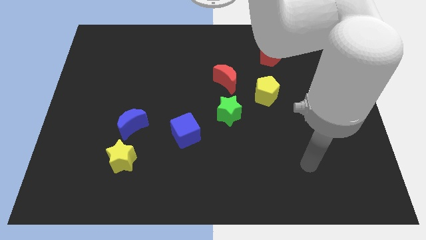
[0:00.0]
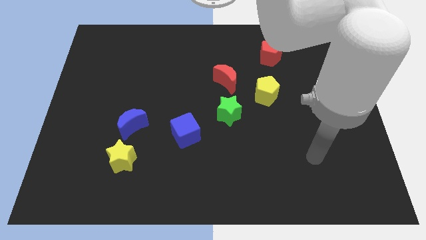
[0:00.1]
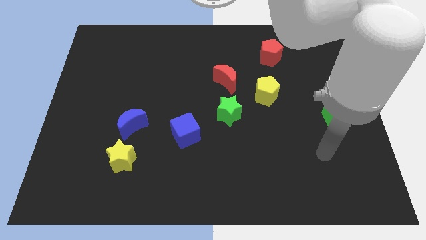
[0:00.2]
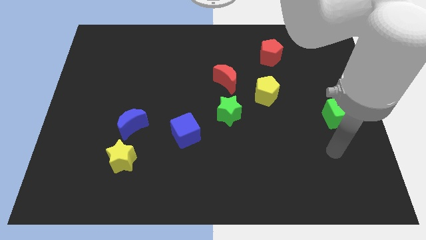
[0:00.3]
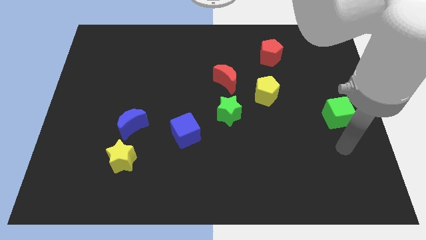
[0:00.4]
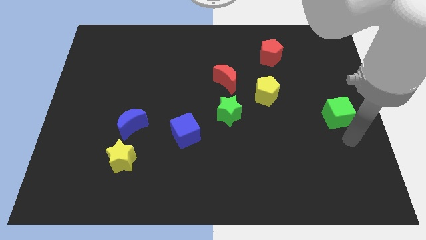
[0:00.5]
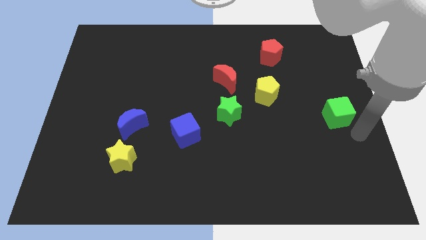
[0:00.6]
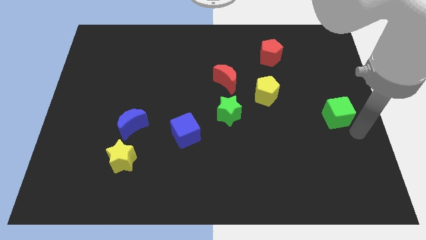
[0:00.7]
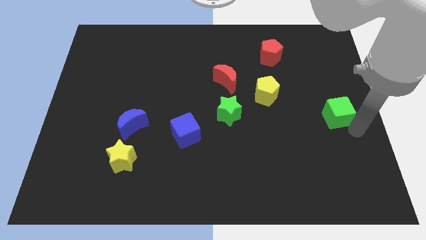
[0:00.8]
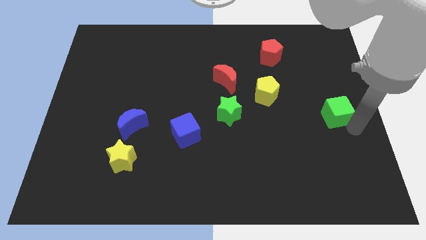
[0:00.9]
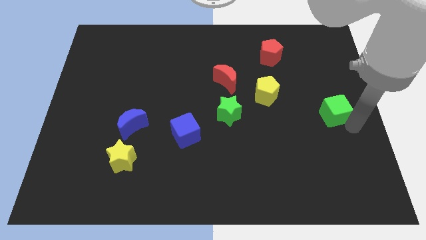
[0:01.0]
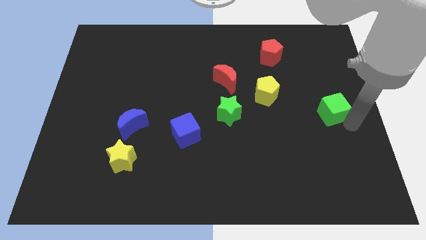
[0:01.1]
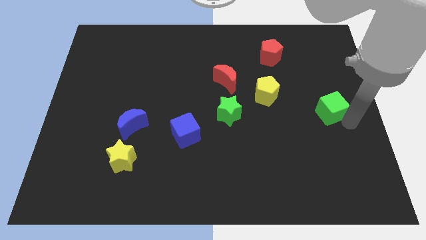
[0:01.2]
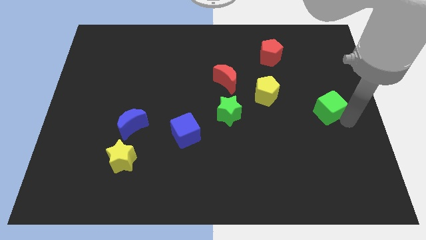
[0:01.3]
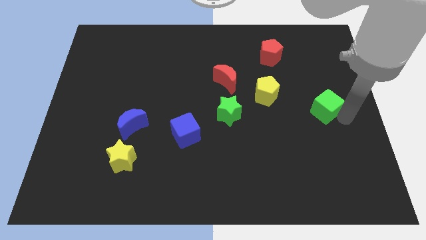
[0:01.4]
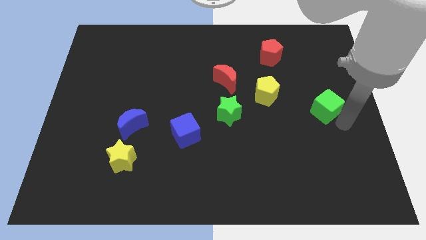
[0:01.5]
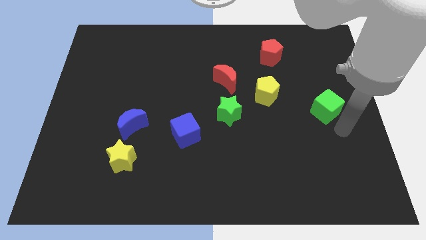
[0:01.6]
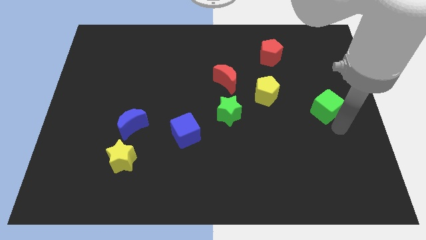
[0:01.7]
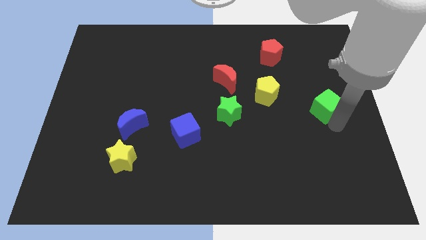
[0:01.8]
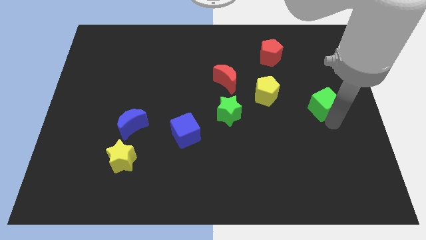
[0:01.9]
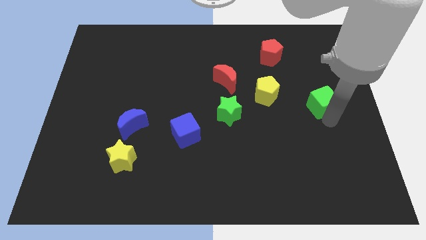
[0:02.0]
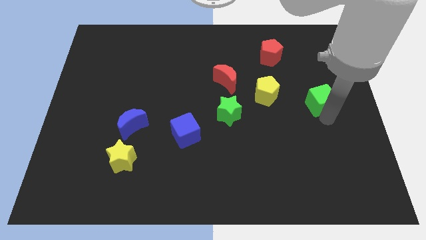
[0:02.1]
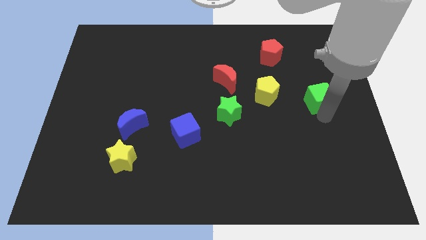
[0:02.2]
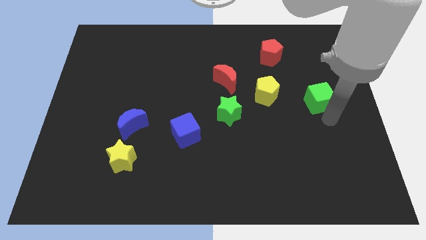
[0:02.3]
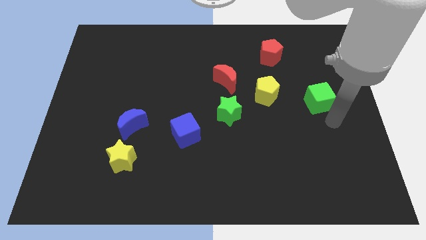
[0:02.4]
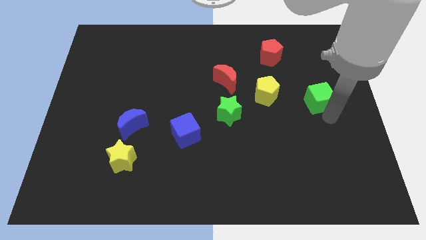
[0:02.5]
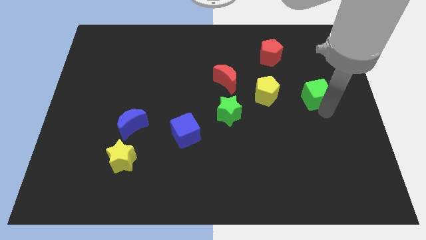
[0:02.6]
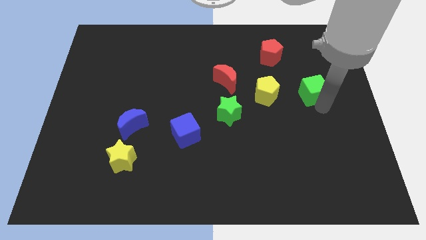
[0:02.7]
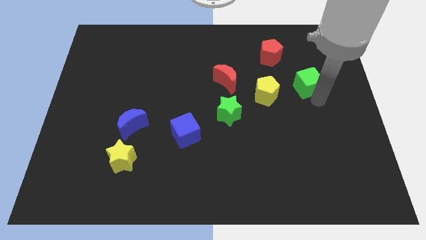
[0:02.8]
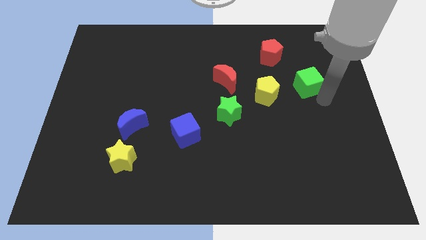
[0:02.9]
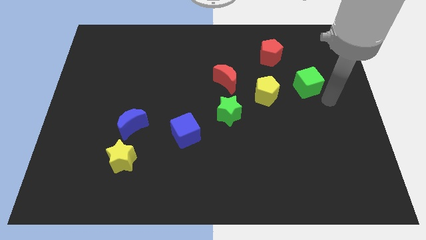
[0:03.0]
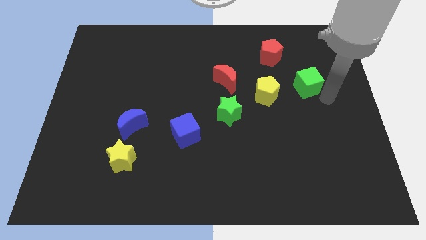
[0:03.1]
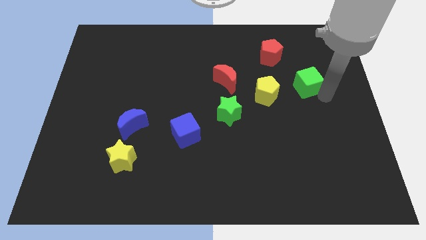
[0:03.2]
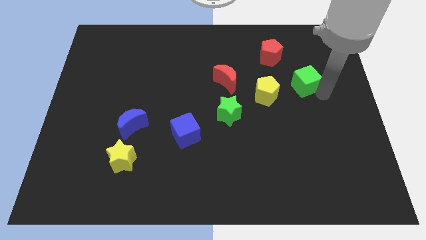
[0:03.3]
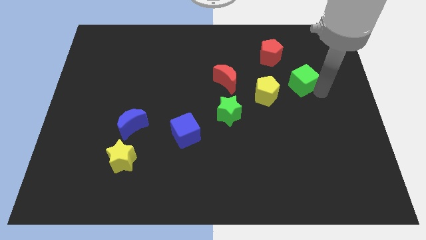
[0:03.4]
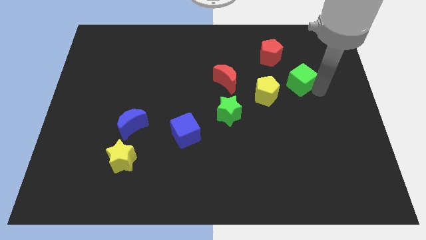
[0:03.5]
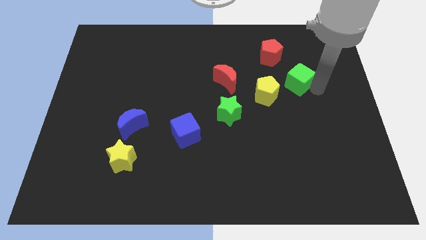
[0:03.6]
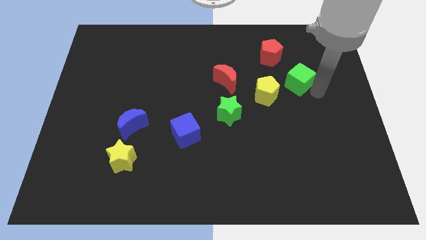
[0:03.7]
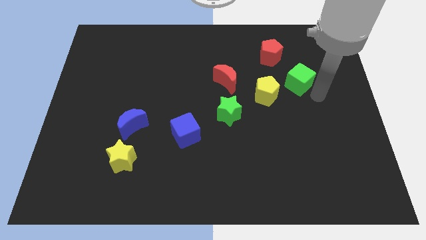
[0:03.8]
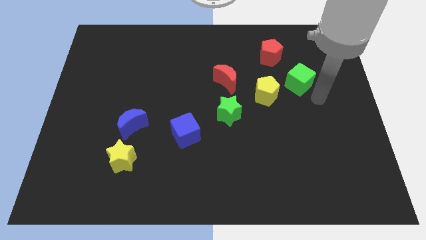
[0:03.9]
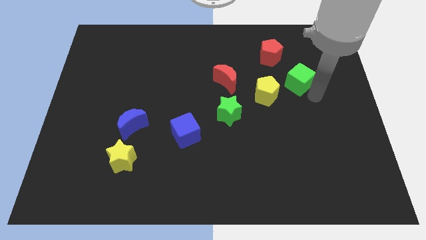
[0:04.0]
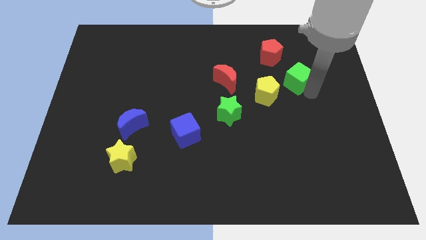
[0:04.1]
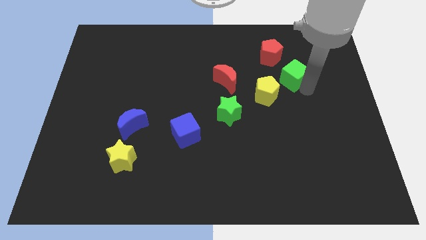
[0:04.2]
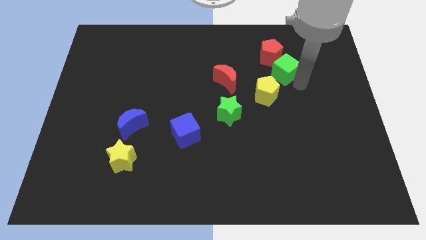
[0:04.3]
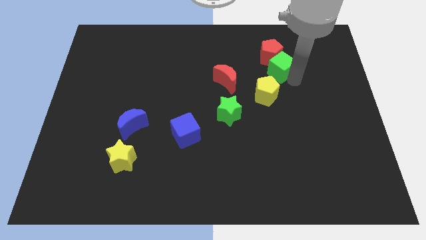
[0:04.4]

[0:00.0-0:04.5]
move the green cube close to the red pentagon

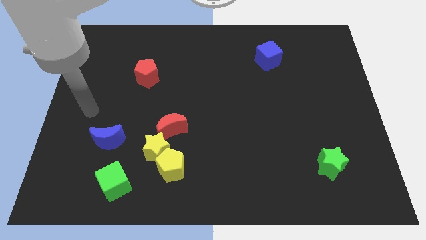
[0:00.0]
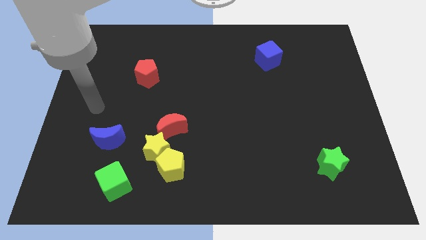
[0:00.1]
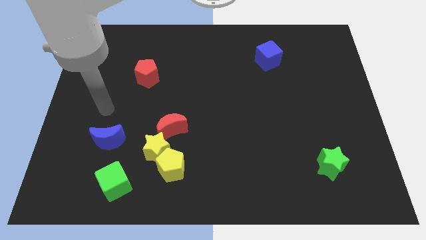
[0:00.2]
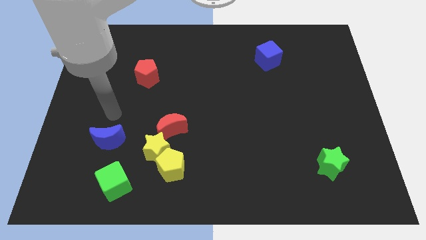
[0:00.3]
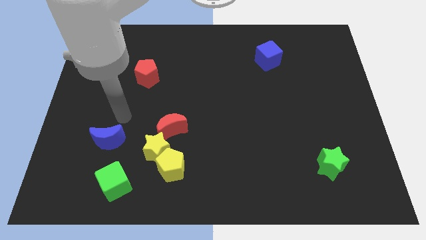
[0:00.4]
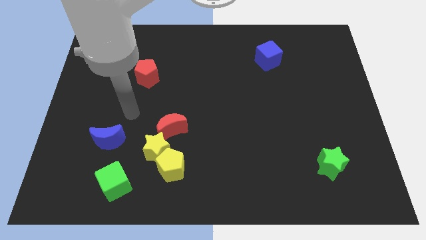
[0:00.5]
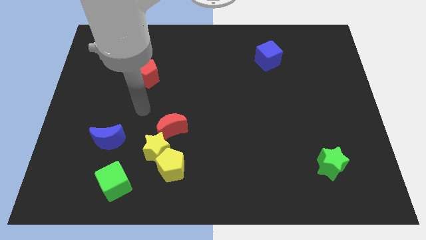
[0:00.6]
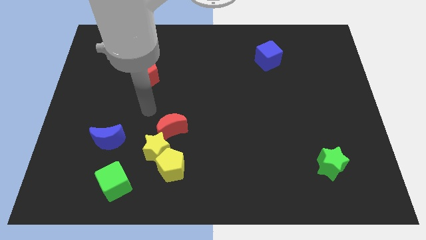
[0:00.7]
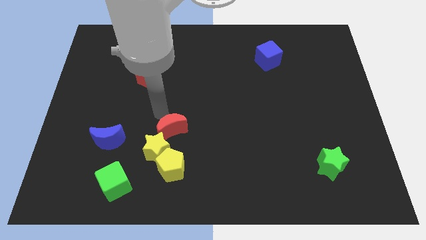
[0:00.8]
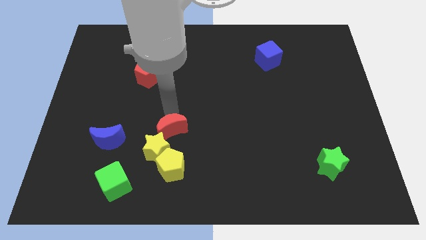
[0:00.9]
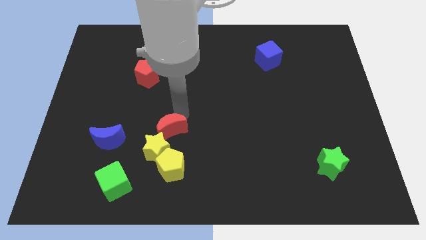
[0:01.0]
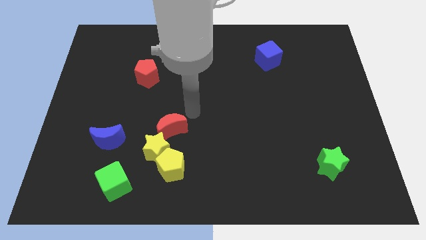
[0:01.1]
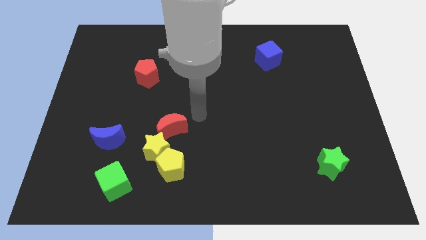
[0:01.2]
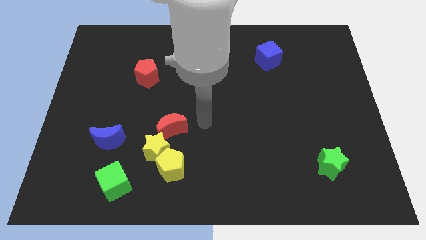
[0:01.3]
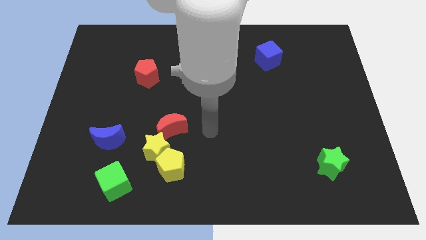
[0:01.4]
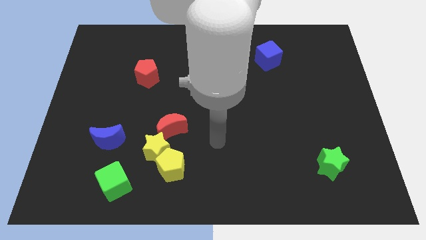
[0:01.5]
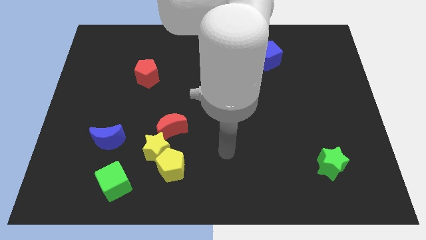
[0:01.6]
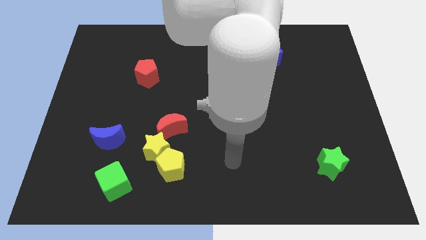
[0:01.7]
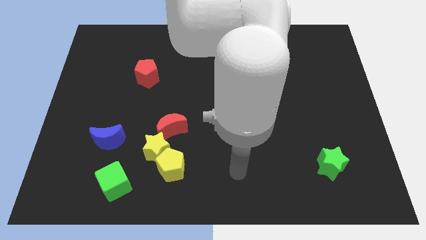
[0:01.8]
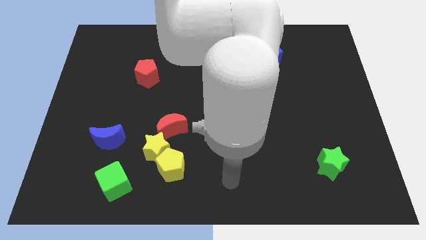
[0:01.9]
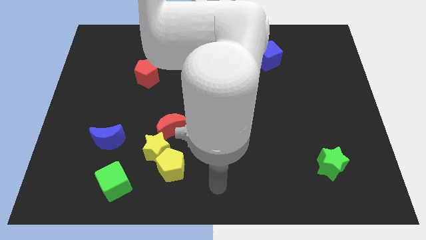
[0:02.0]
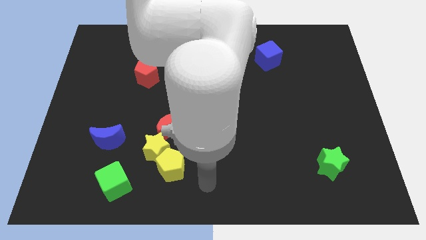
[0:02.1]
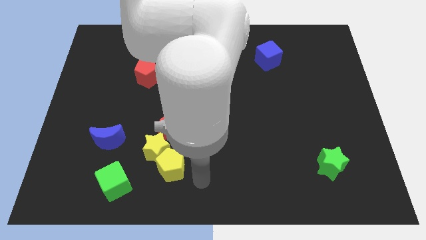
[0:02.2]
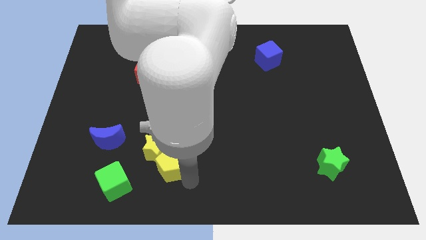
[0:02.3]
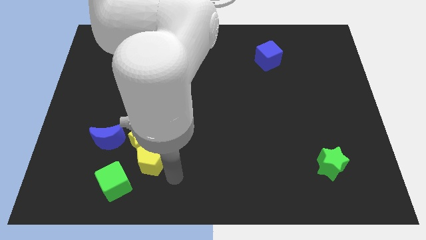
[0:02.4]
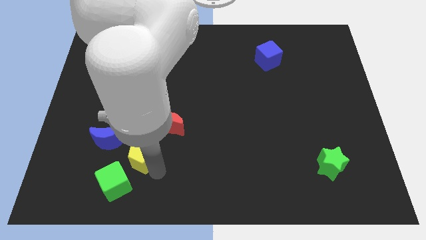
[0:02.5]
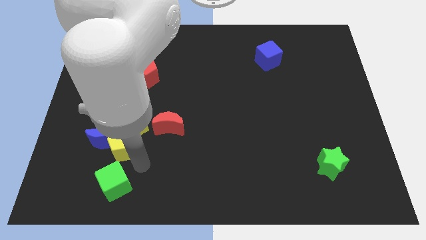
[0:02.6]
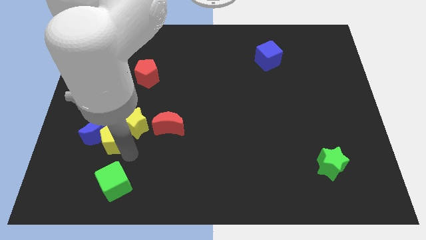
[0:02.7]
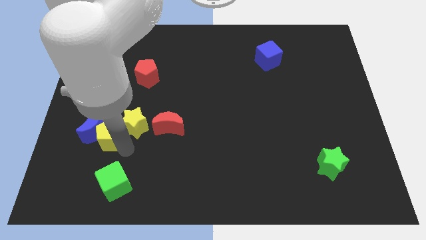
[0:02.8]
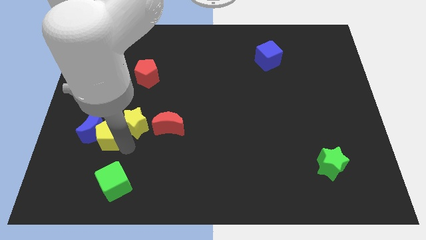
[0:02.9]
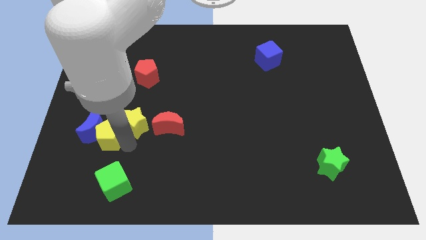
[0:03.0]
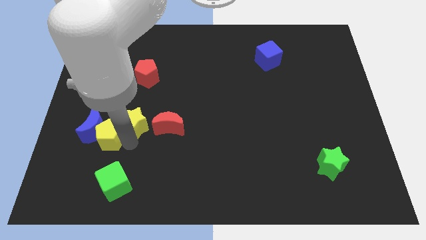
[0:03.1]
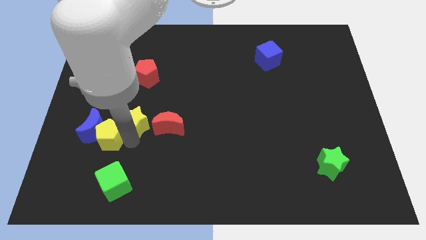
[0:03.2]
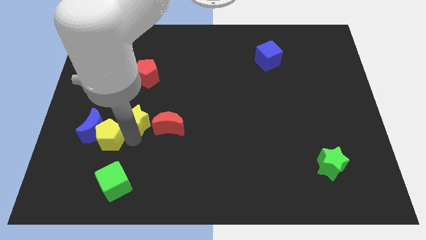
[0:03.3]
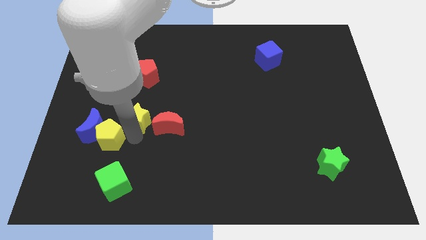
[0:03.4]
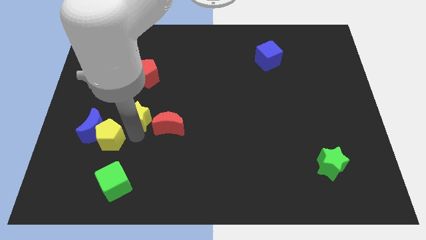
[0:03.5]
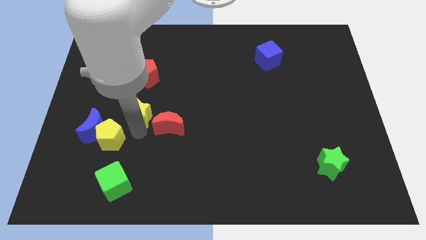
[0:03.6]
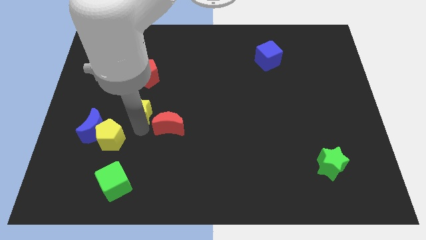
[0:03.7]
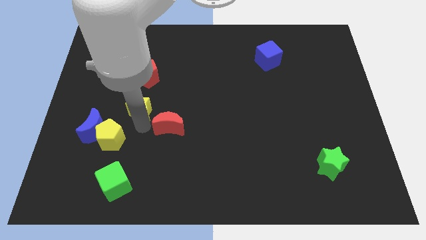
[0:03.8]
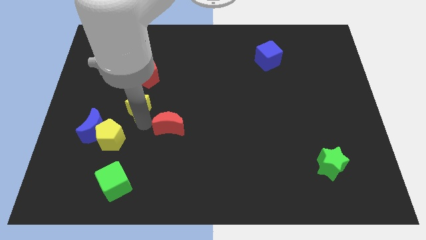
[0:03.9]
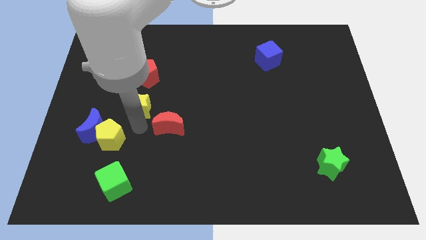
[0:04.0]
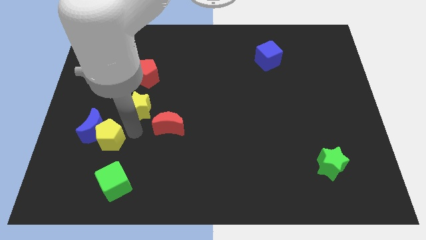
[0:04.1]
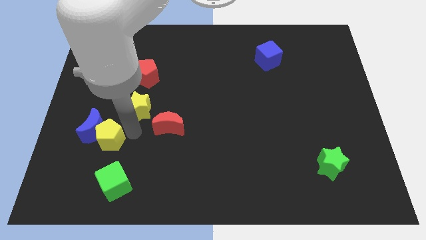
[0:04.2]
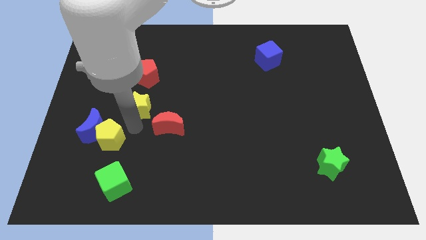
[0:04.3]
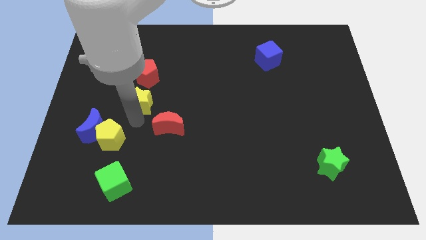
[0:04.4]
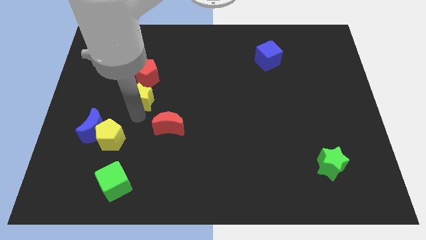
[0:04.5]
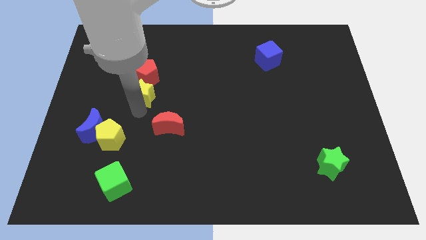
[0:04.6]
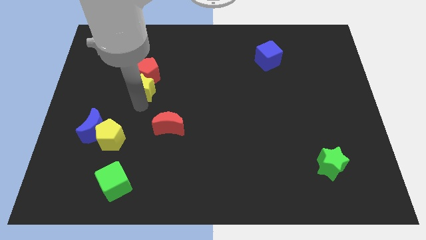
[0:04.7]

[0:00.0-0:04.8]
slide the yellow star close to the red pentagon
